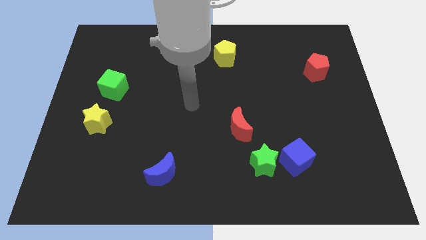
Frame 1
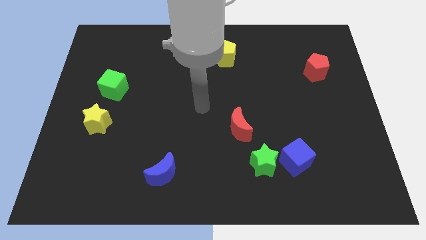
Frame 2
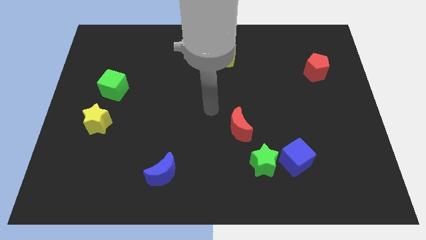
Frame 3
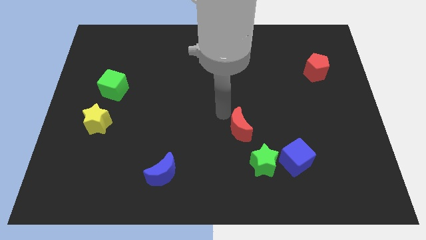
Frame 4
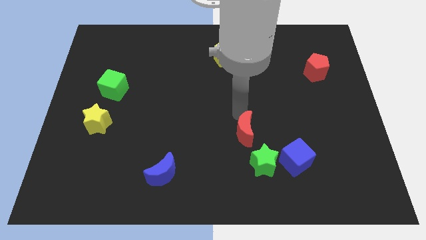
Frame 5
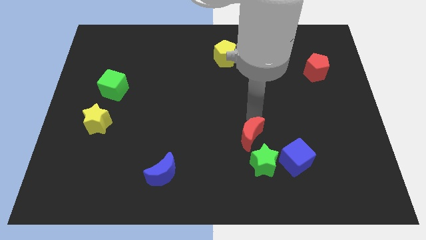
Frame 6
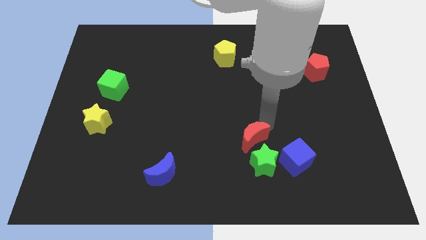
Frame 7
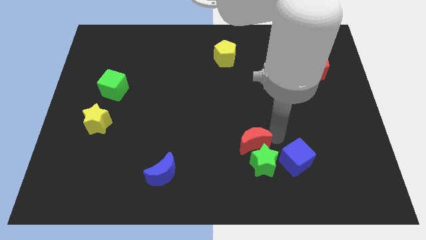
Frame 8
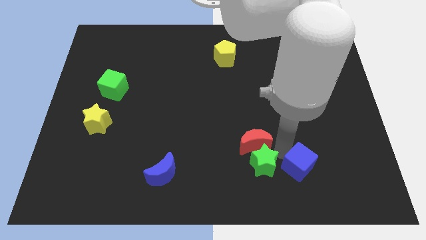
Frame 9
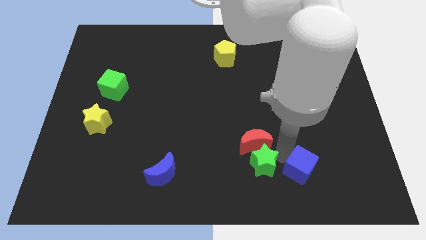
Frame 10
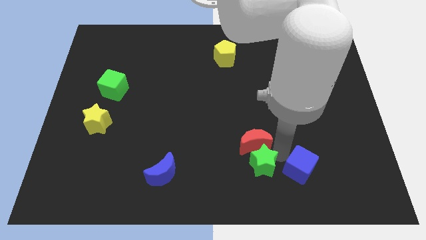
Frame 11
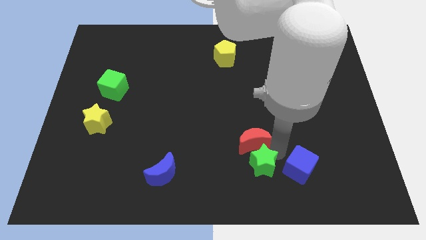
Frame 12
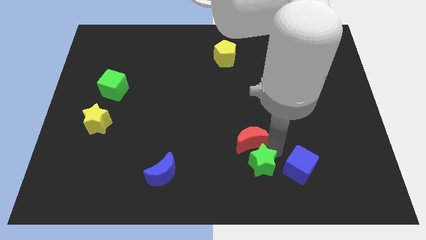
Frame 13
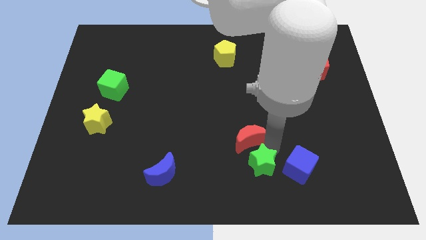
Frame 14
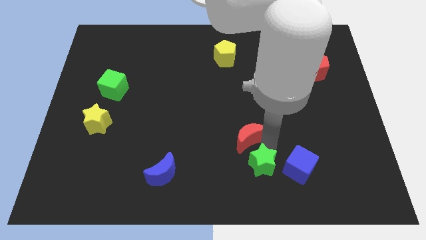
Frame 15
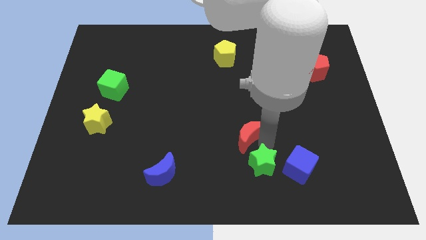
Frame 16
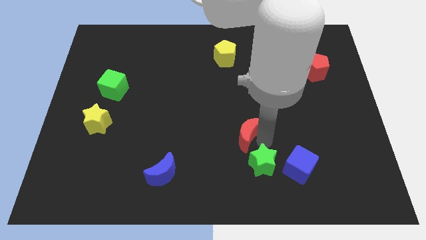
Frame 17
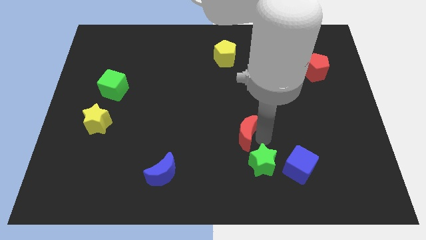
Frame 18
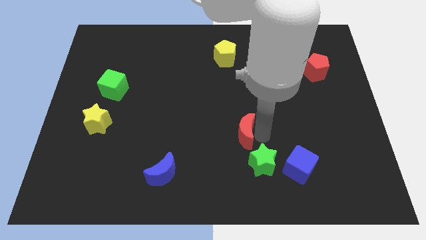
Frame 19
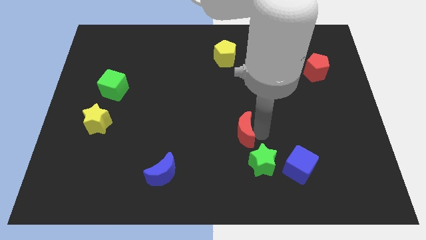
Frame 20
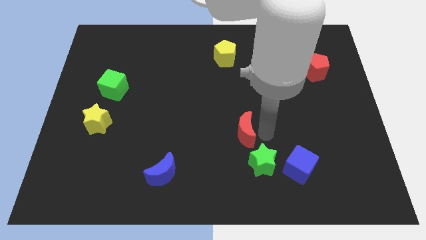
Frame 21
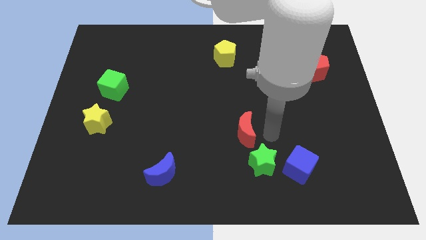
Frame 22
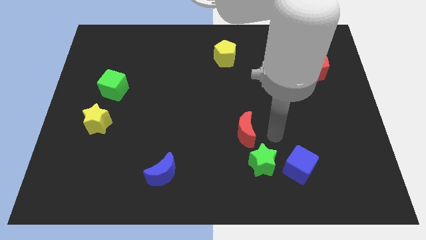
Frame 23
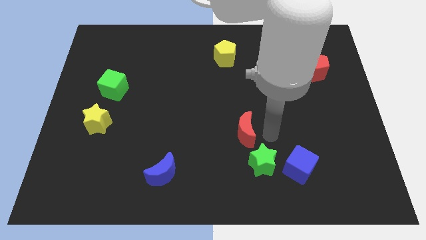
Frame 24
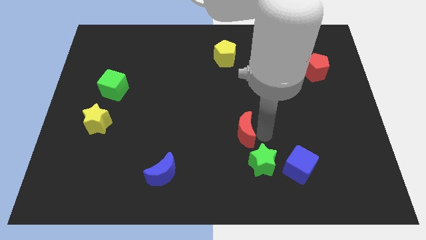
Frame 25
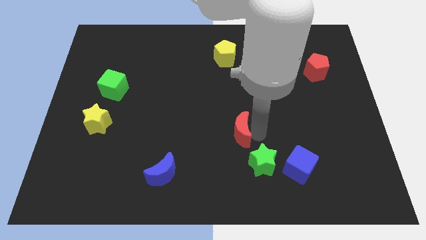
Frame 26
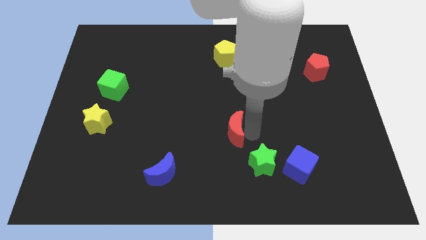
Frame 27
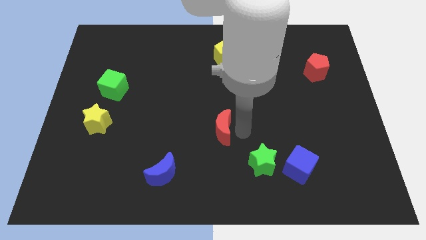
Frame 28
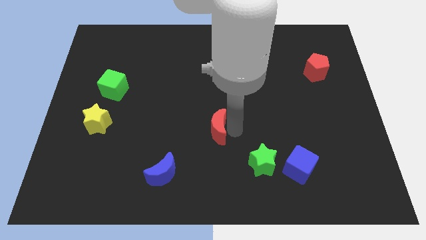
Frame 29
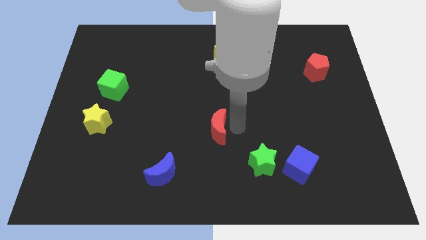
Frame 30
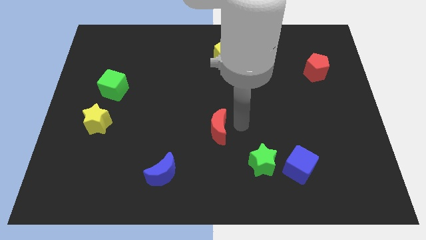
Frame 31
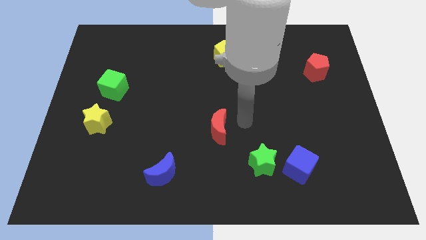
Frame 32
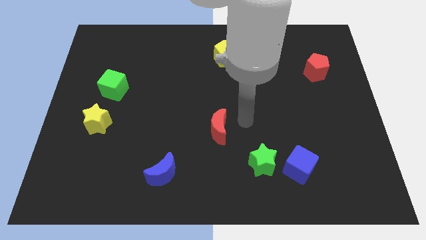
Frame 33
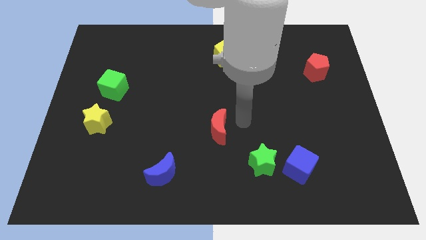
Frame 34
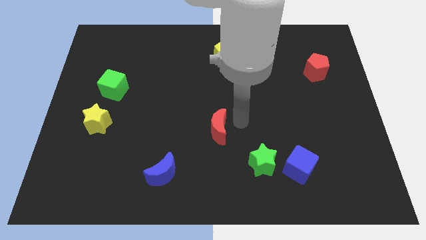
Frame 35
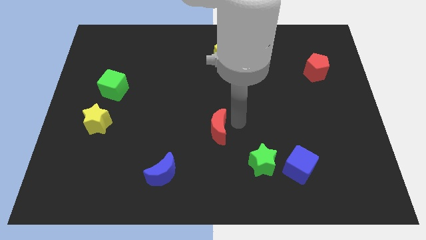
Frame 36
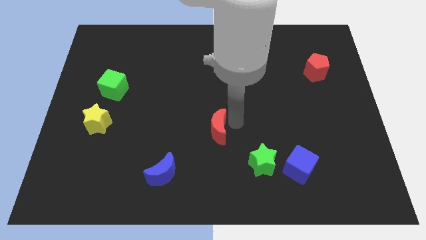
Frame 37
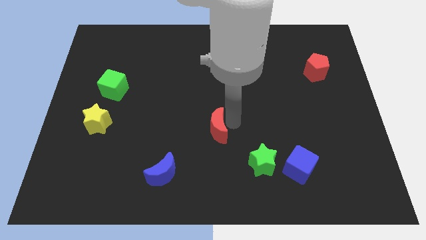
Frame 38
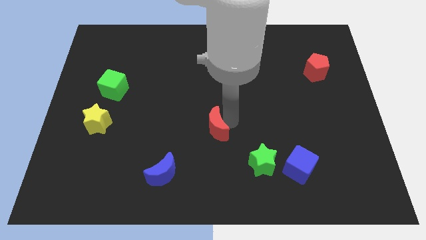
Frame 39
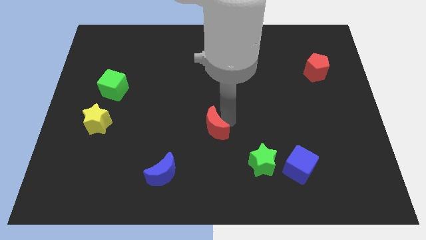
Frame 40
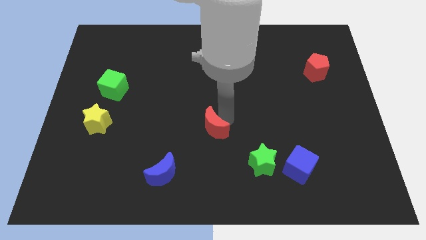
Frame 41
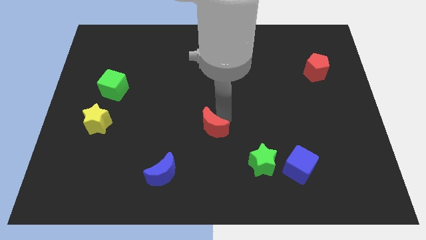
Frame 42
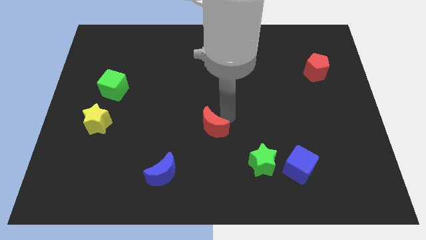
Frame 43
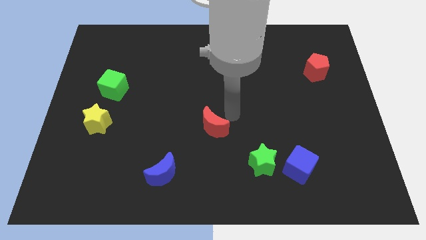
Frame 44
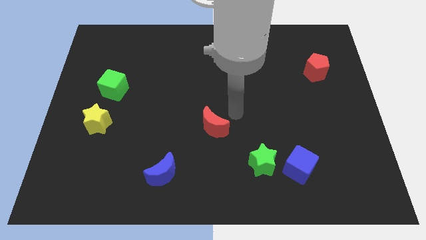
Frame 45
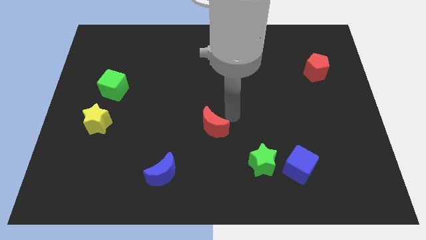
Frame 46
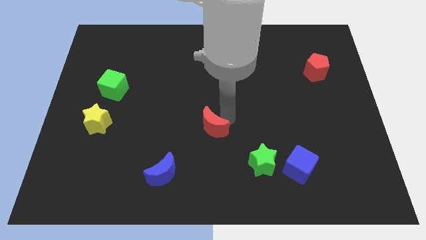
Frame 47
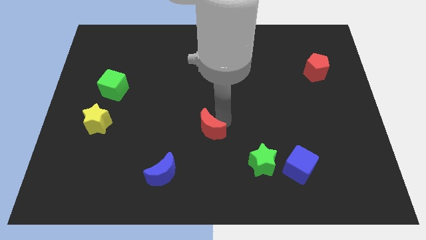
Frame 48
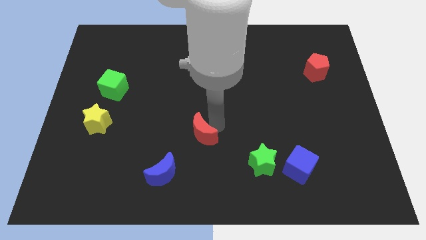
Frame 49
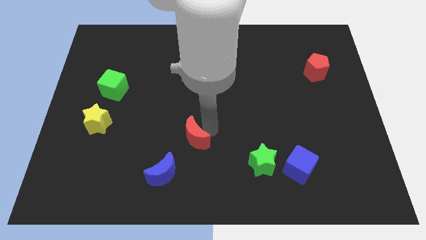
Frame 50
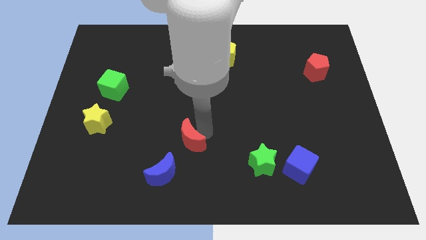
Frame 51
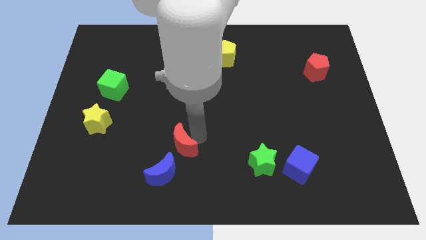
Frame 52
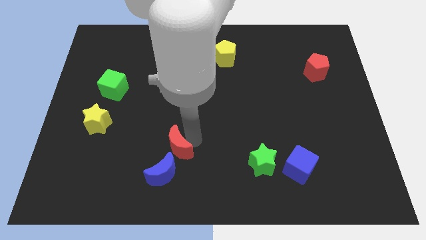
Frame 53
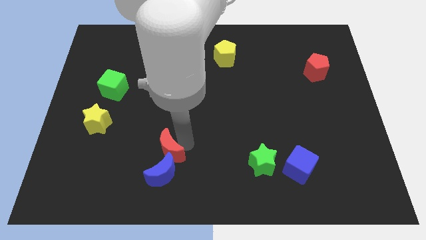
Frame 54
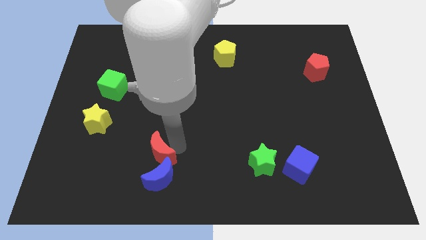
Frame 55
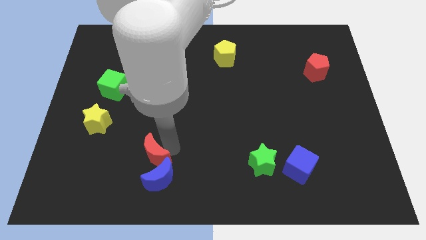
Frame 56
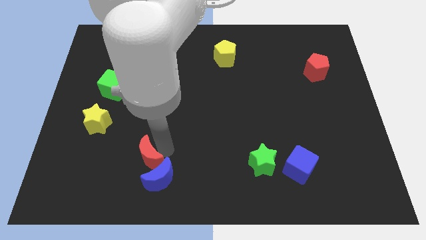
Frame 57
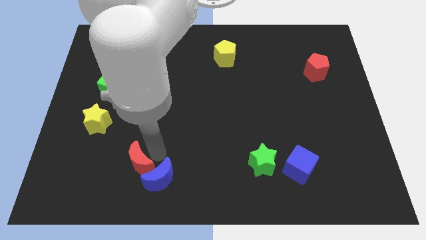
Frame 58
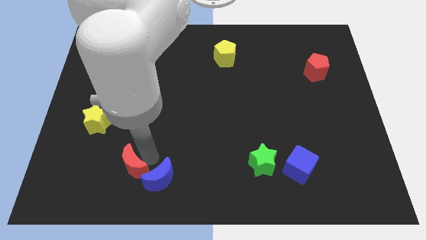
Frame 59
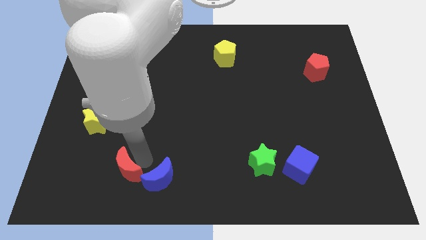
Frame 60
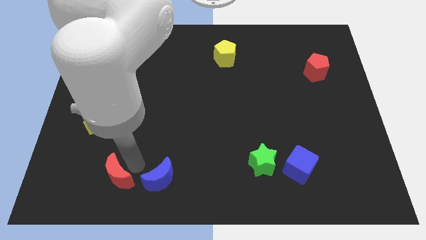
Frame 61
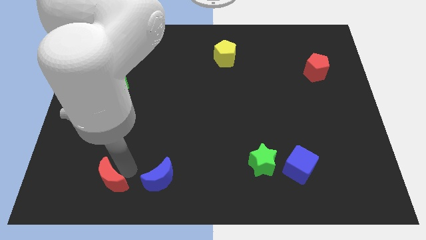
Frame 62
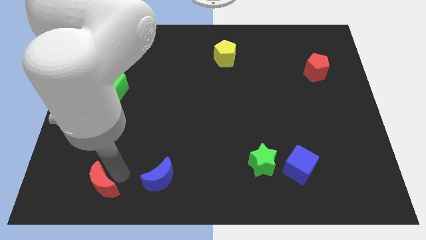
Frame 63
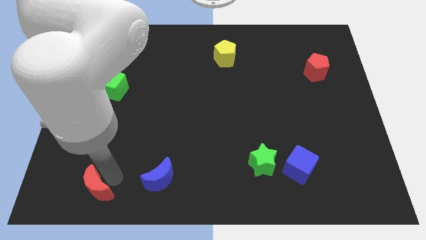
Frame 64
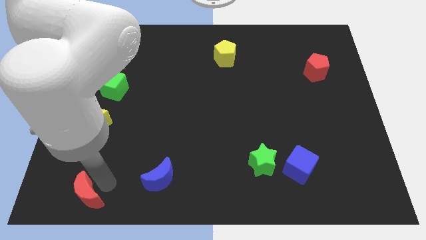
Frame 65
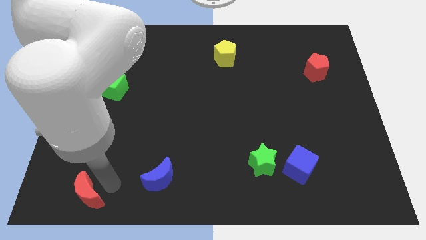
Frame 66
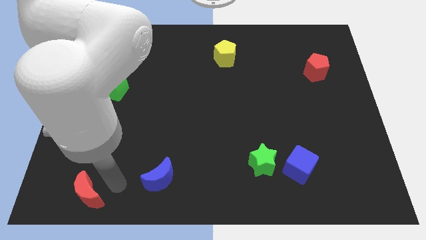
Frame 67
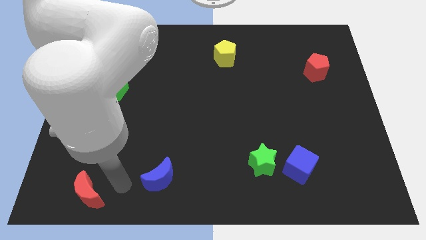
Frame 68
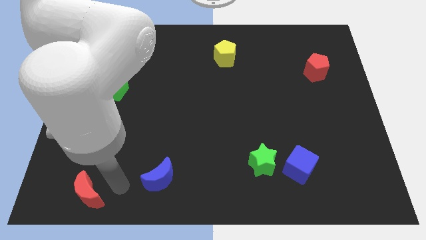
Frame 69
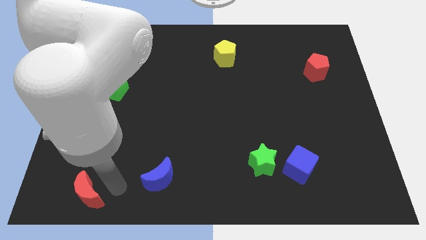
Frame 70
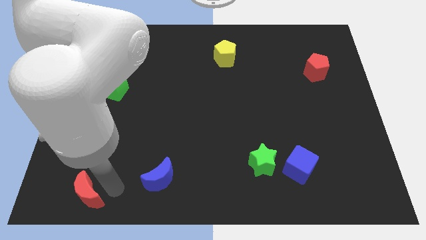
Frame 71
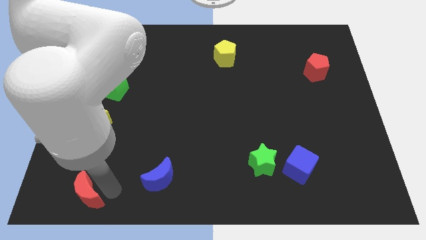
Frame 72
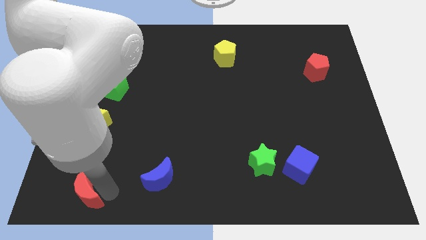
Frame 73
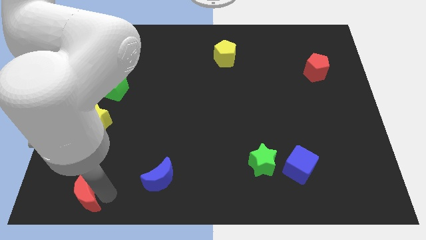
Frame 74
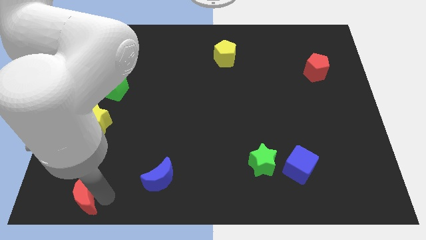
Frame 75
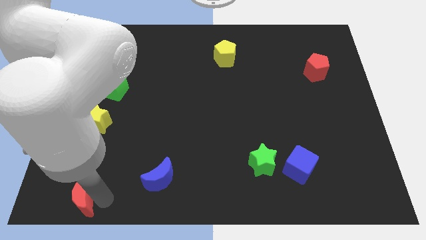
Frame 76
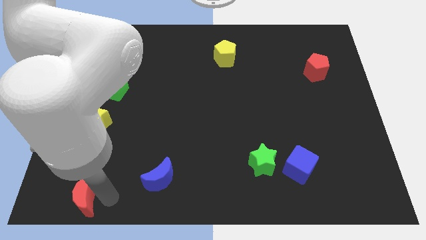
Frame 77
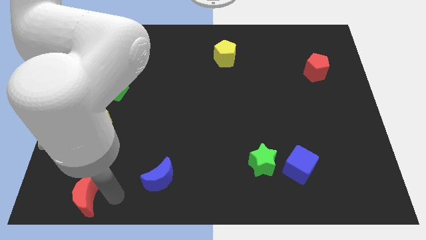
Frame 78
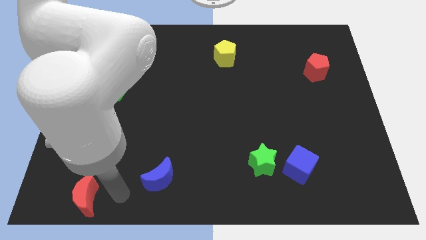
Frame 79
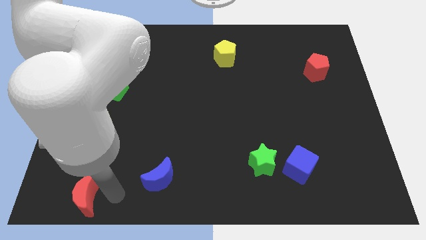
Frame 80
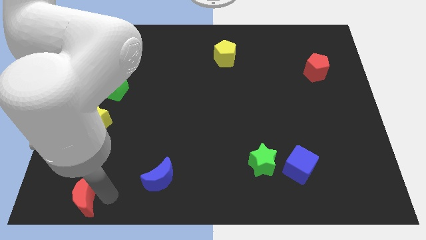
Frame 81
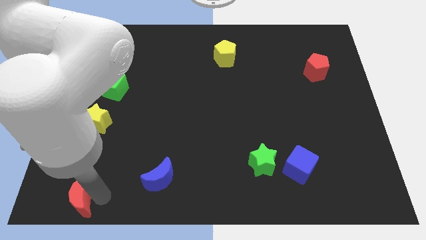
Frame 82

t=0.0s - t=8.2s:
put the red moon to the lower left corner
